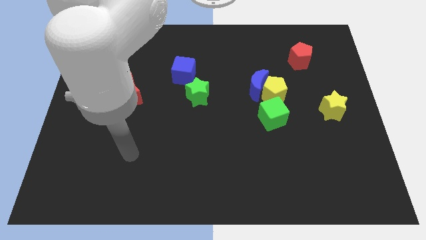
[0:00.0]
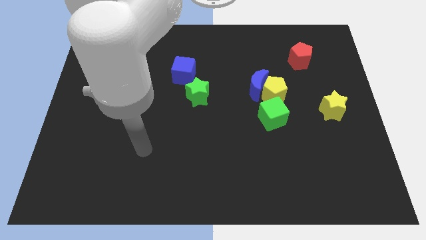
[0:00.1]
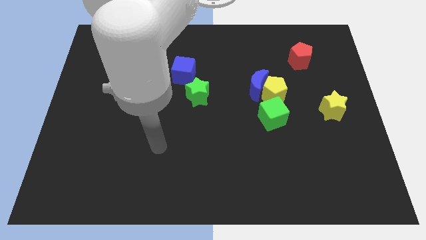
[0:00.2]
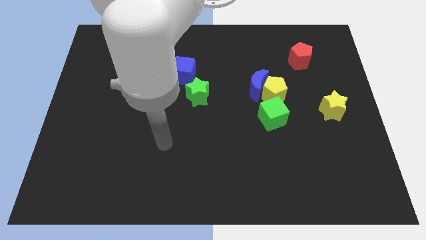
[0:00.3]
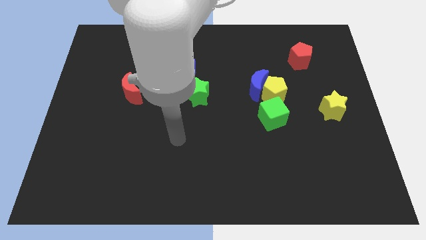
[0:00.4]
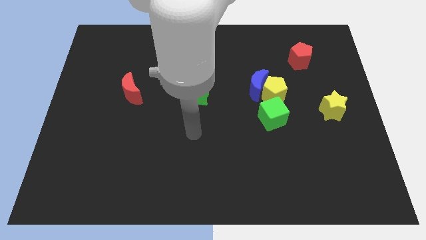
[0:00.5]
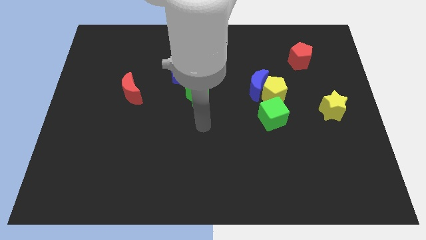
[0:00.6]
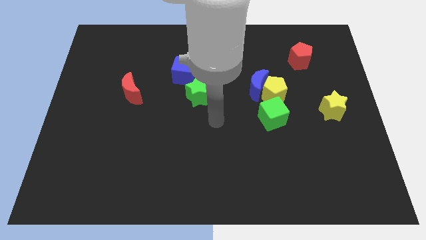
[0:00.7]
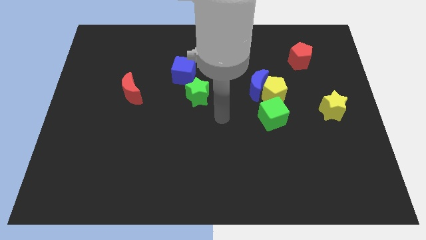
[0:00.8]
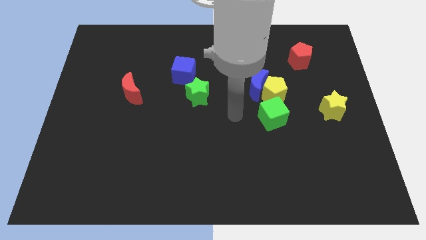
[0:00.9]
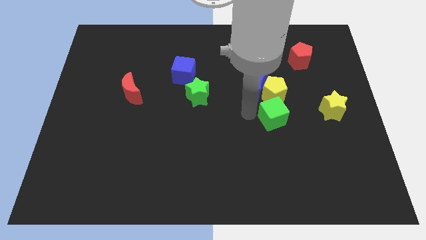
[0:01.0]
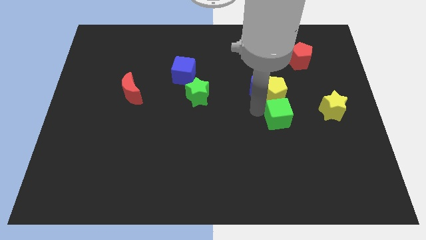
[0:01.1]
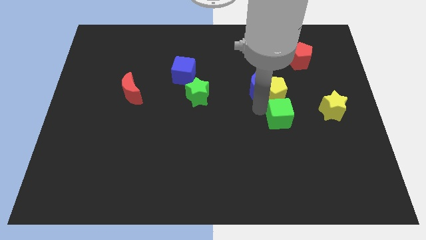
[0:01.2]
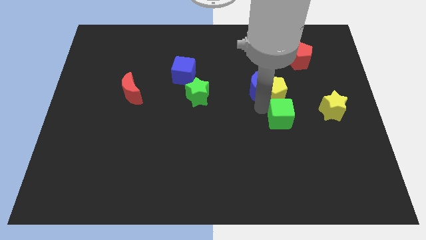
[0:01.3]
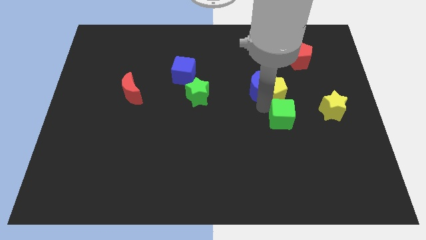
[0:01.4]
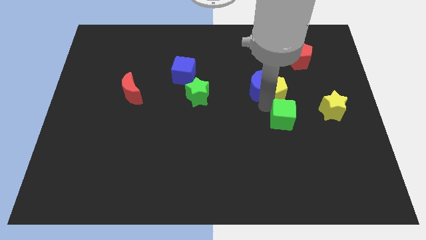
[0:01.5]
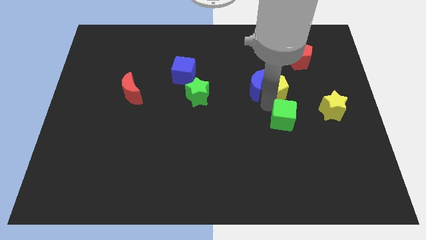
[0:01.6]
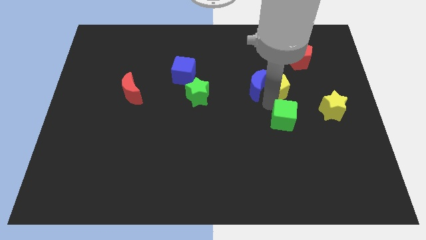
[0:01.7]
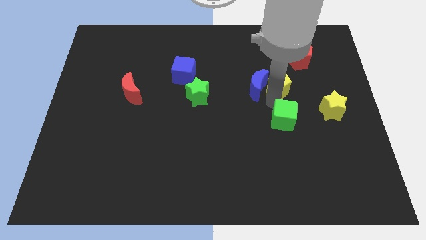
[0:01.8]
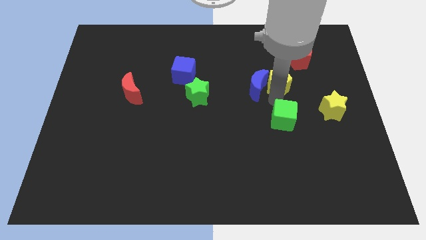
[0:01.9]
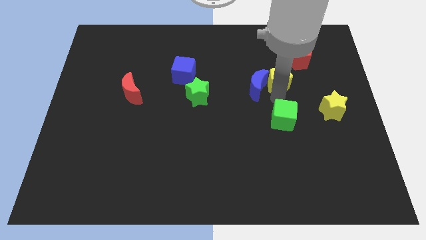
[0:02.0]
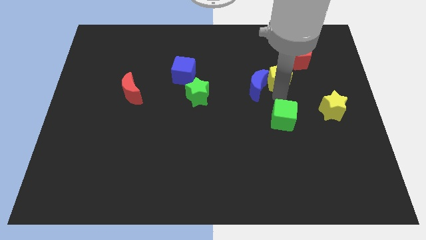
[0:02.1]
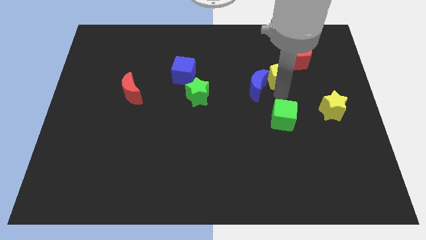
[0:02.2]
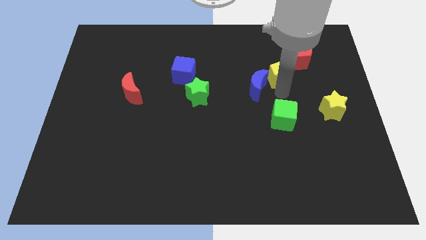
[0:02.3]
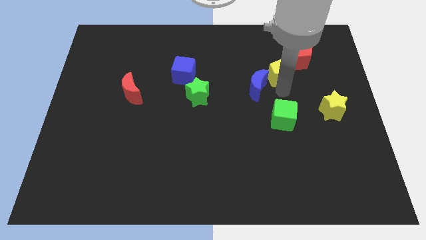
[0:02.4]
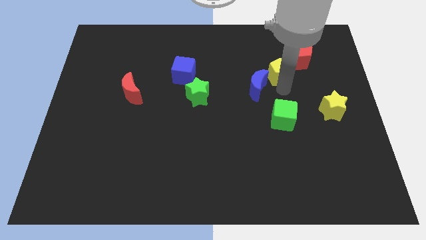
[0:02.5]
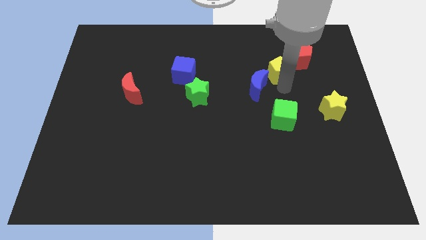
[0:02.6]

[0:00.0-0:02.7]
pull the yellow pentagon apart from the blue moon and green cube

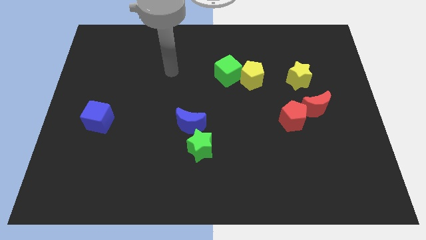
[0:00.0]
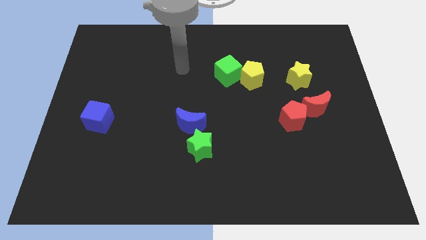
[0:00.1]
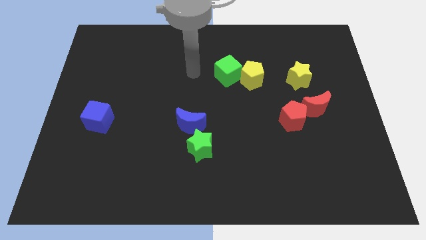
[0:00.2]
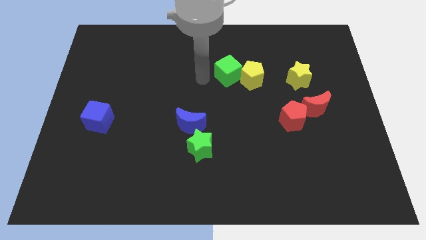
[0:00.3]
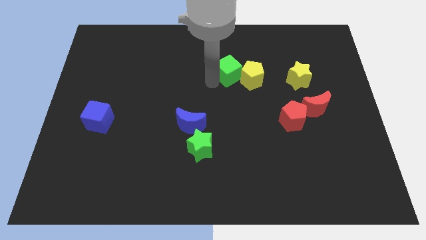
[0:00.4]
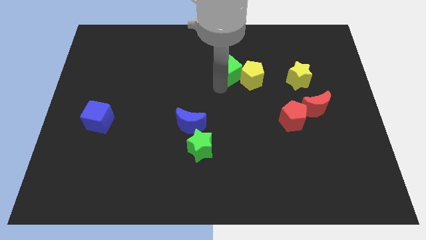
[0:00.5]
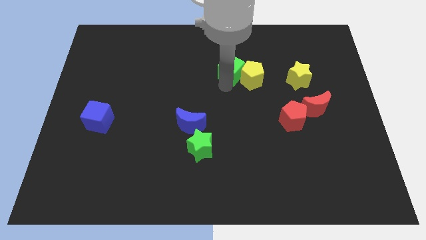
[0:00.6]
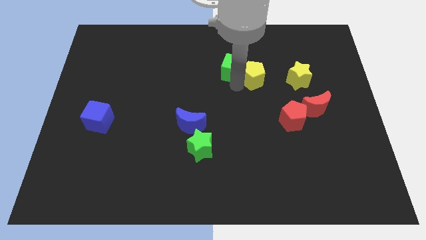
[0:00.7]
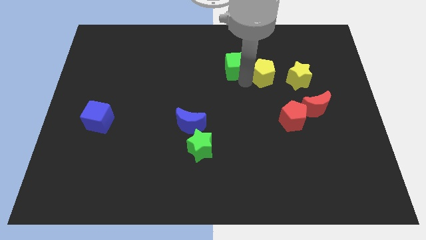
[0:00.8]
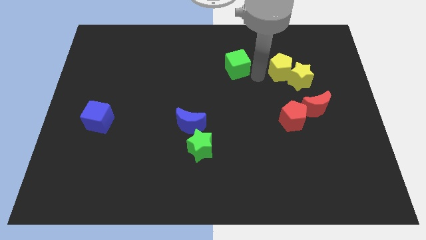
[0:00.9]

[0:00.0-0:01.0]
separate the green cube from the yellow pentagon

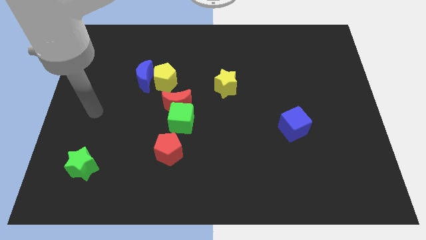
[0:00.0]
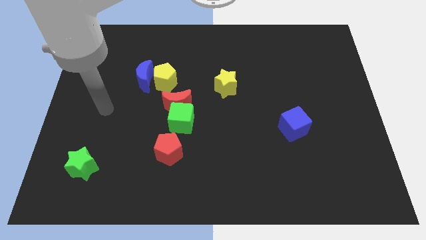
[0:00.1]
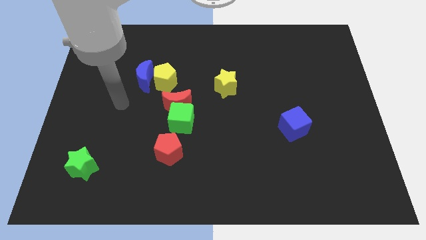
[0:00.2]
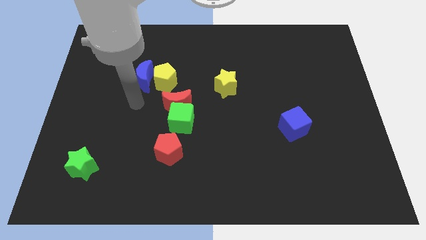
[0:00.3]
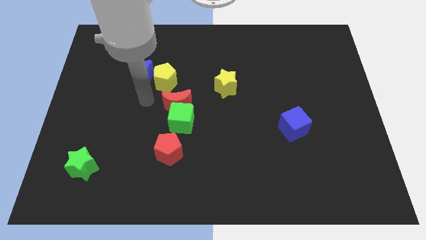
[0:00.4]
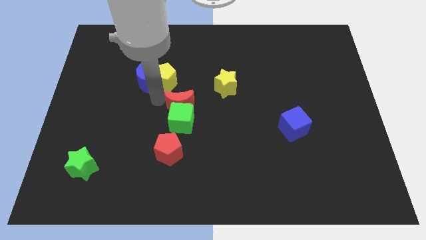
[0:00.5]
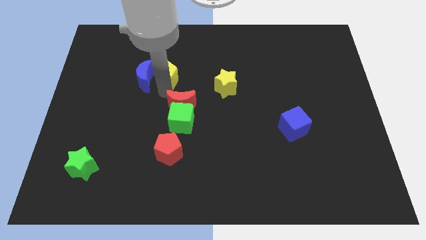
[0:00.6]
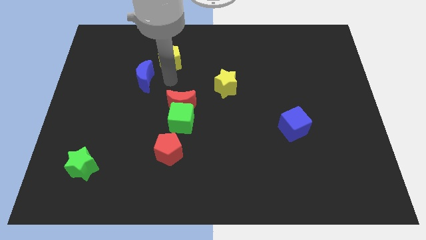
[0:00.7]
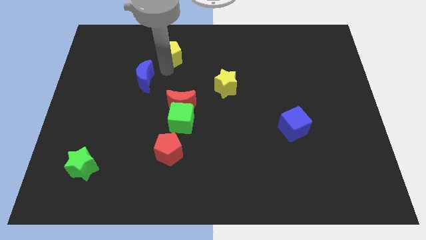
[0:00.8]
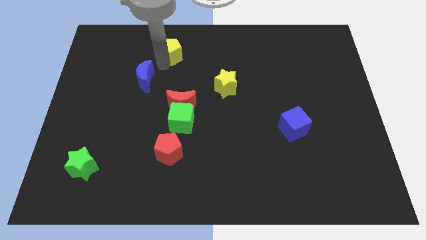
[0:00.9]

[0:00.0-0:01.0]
move the blue moon away from the yellow pentagon

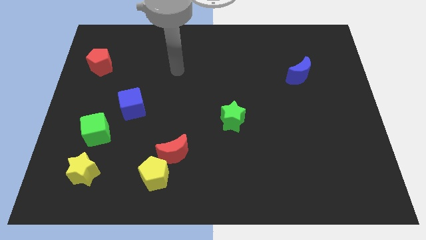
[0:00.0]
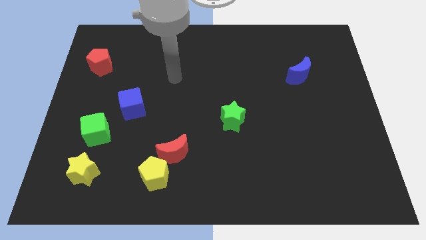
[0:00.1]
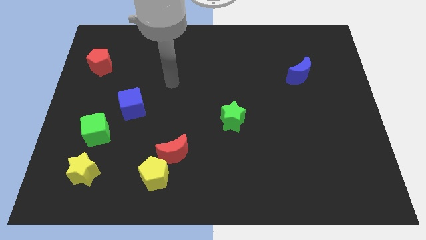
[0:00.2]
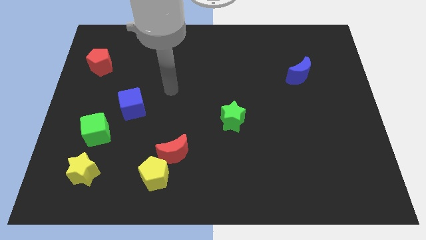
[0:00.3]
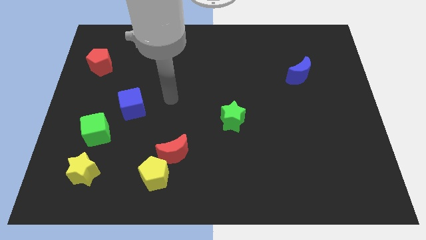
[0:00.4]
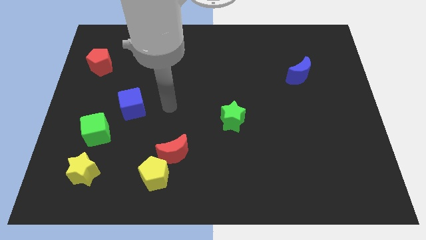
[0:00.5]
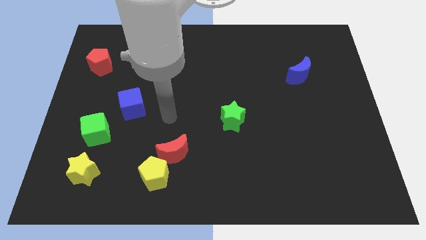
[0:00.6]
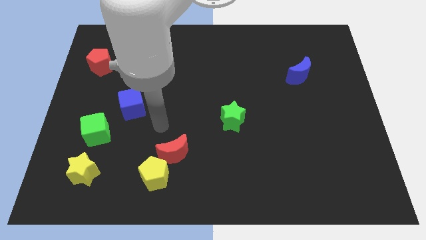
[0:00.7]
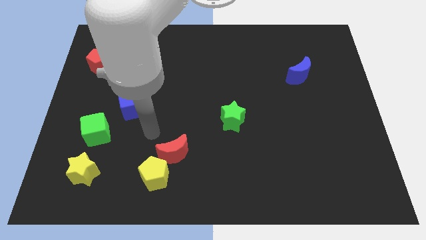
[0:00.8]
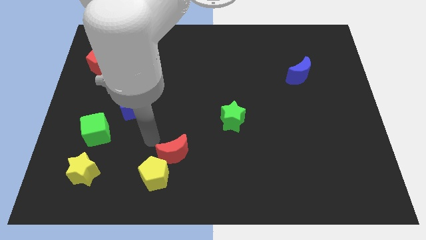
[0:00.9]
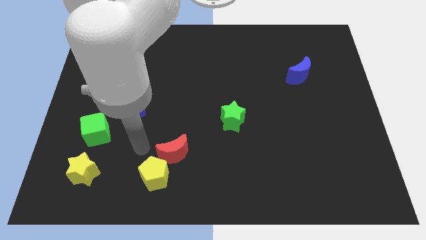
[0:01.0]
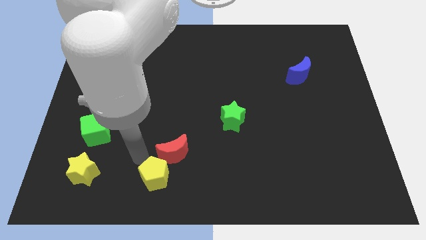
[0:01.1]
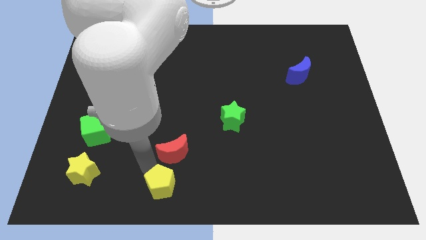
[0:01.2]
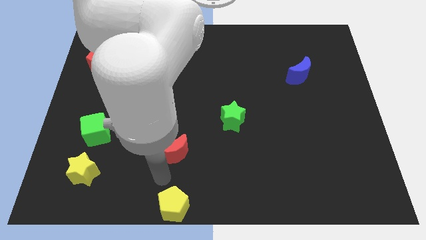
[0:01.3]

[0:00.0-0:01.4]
move the red moon away from the yellow pentagon

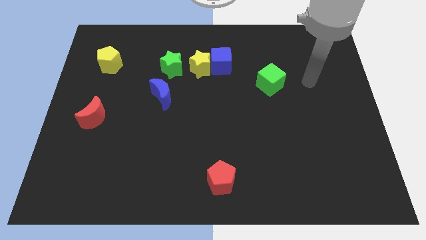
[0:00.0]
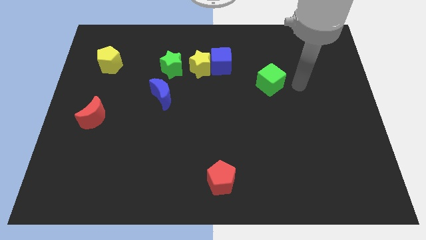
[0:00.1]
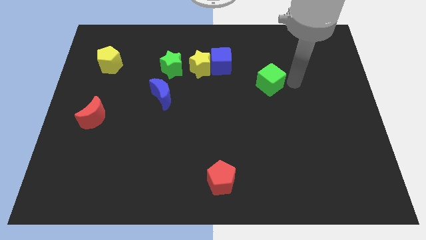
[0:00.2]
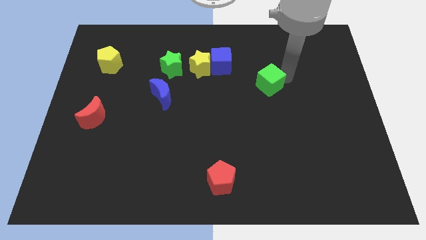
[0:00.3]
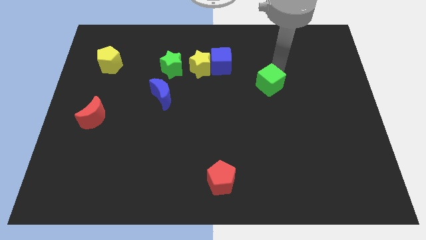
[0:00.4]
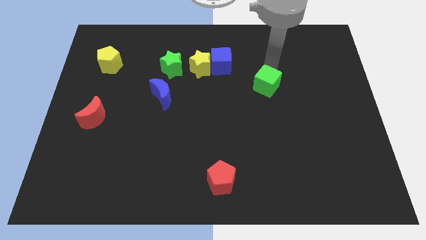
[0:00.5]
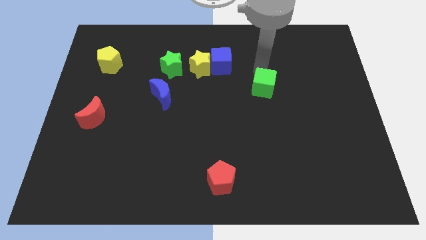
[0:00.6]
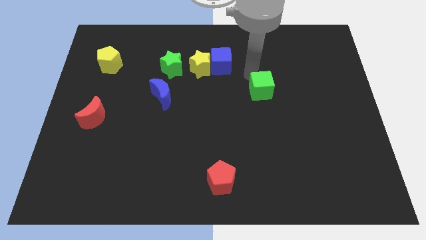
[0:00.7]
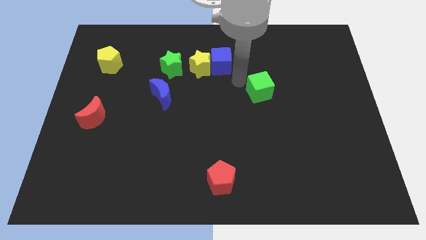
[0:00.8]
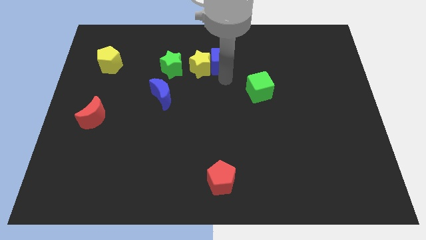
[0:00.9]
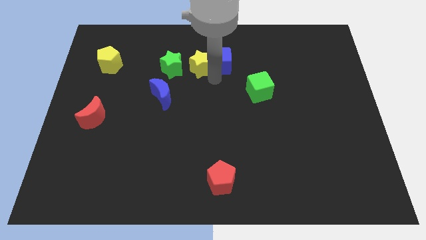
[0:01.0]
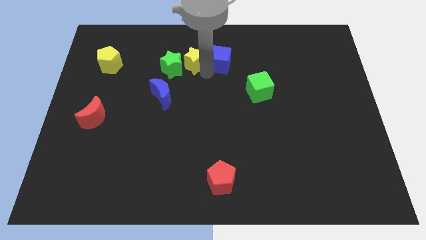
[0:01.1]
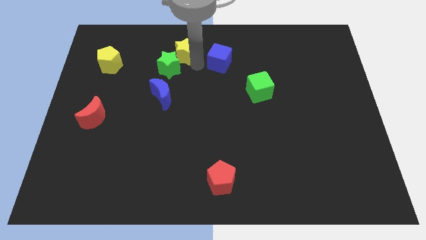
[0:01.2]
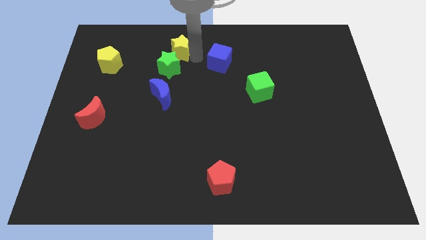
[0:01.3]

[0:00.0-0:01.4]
move the blue cube away from the yellow star

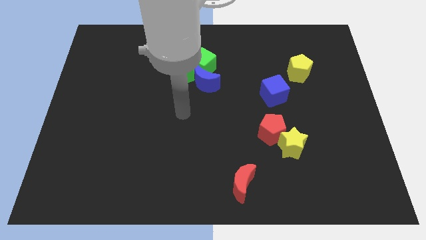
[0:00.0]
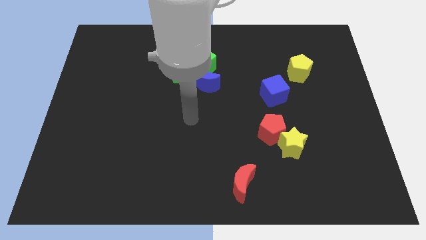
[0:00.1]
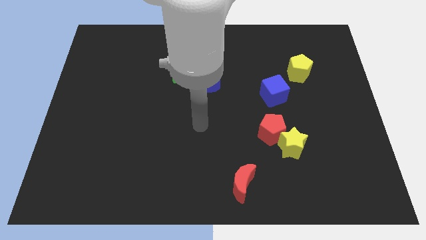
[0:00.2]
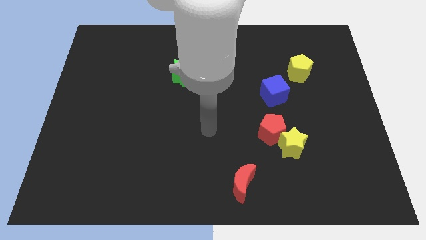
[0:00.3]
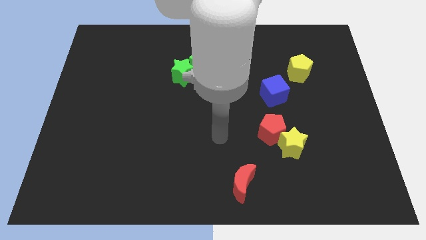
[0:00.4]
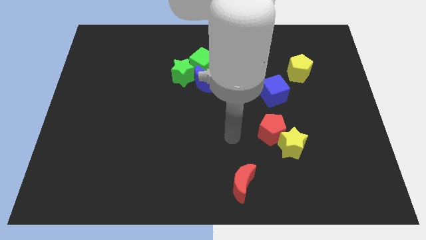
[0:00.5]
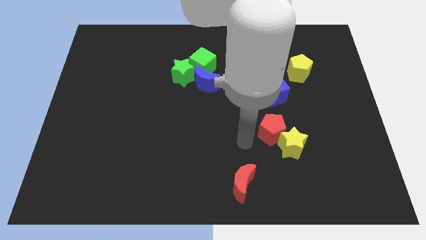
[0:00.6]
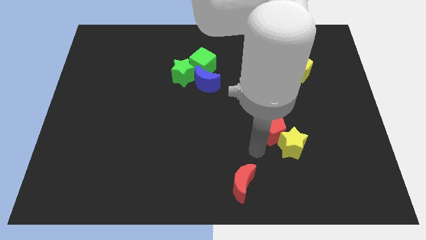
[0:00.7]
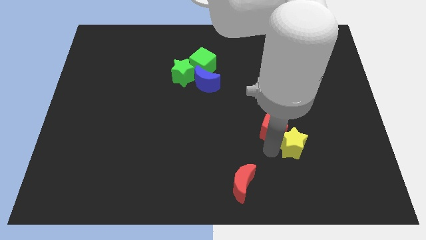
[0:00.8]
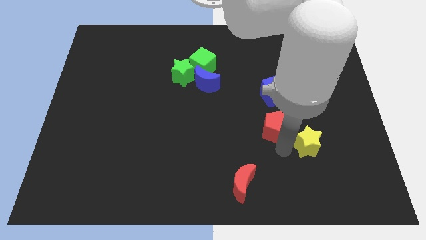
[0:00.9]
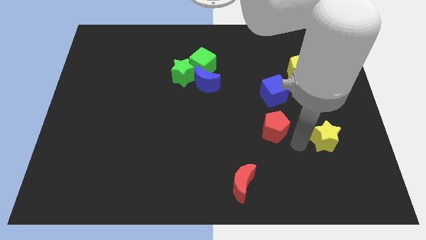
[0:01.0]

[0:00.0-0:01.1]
separate the red pentagon from the yellow star

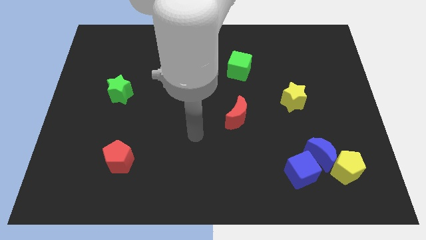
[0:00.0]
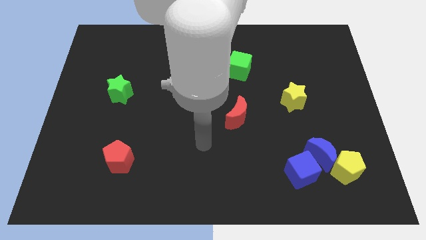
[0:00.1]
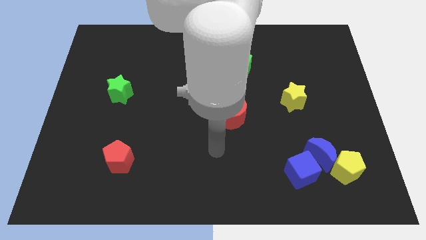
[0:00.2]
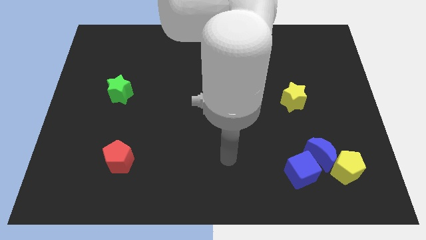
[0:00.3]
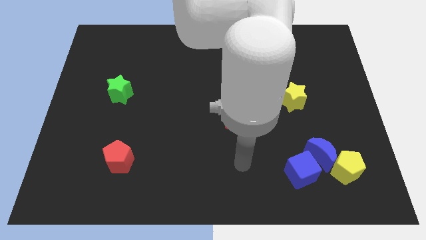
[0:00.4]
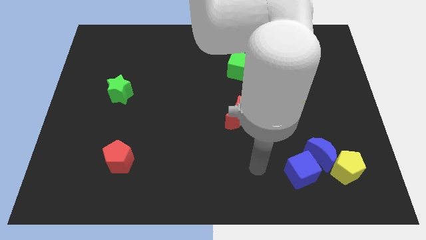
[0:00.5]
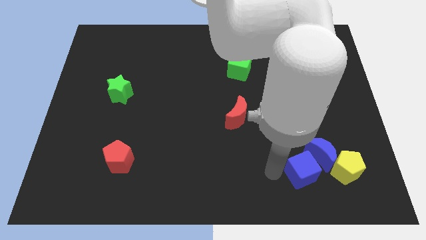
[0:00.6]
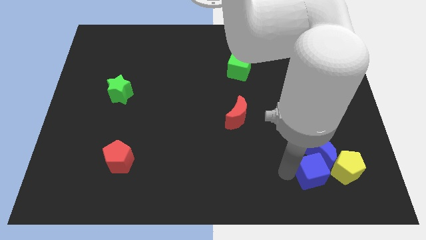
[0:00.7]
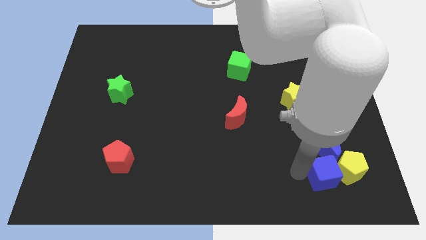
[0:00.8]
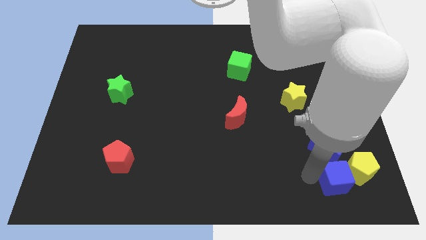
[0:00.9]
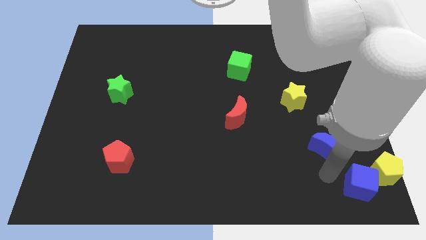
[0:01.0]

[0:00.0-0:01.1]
separate the blue moon from the yellow pentagon and blue cube
